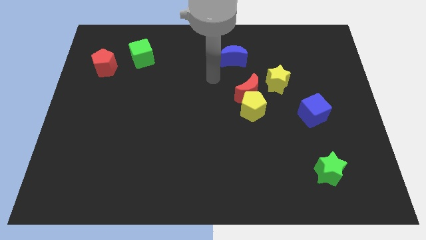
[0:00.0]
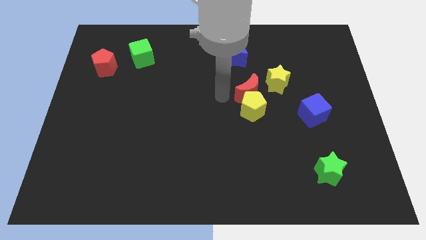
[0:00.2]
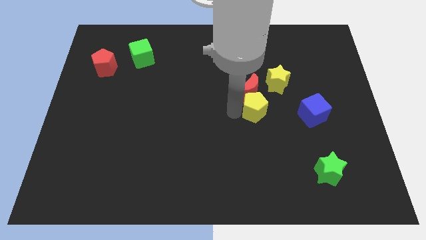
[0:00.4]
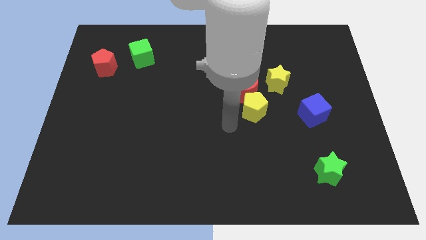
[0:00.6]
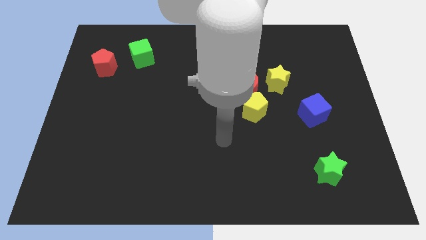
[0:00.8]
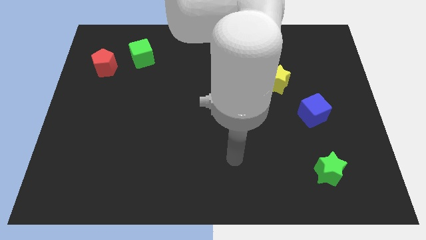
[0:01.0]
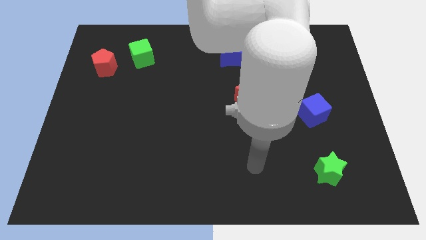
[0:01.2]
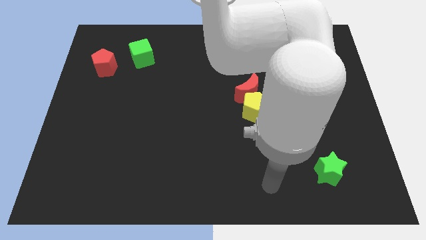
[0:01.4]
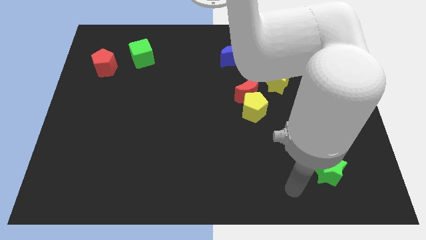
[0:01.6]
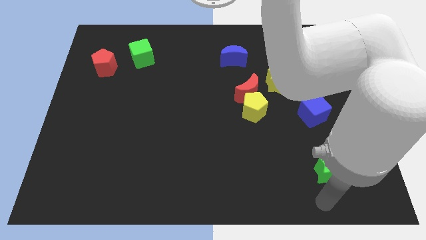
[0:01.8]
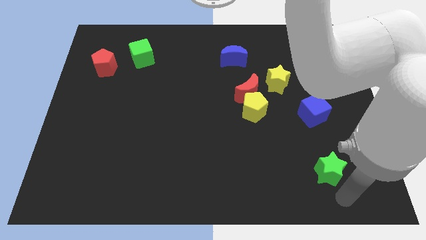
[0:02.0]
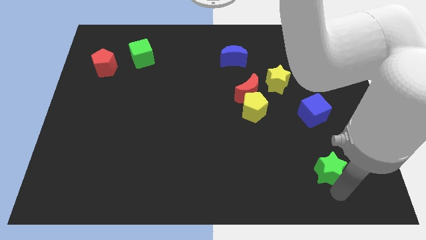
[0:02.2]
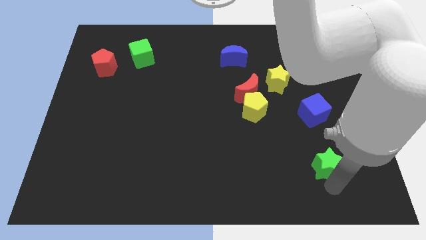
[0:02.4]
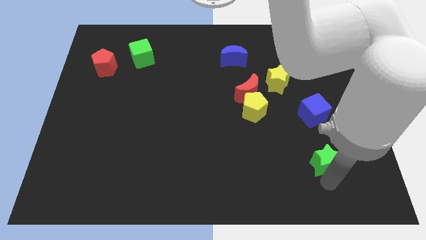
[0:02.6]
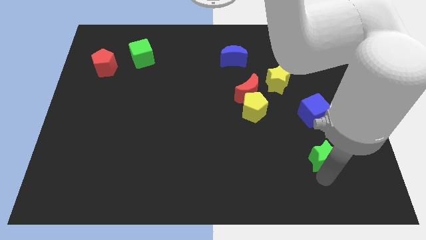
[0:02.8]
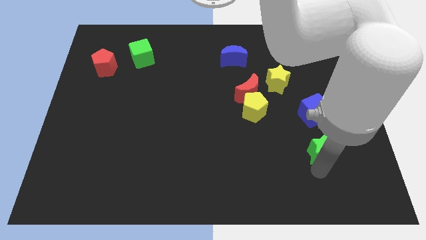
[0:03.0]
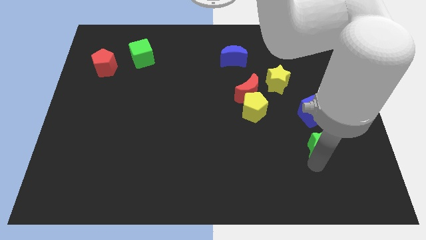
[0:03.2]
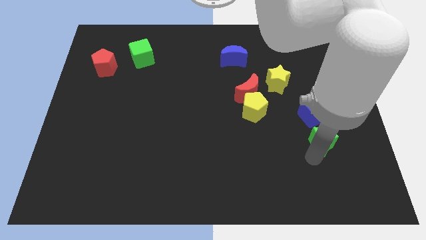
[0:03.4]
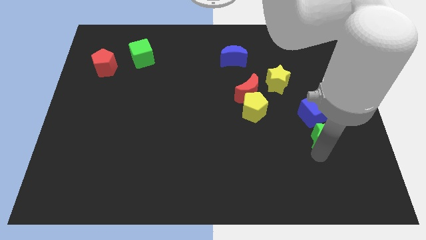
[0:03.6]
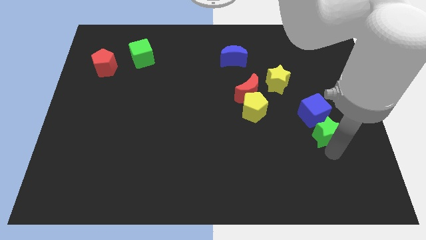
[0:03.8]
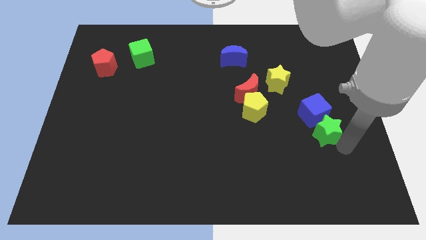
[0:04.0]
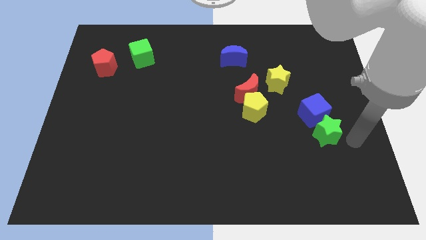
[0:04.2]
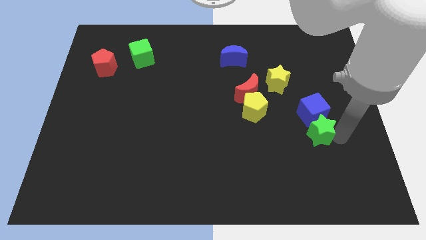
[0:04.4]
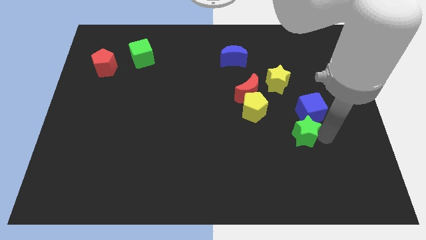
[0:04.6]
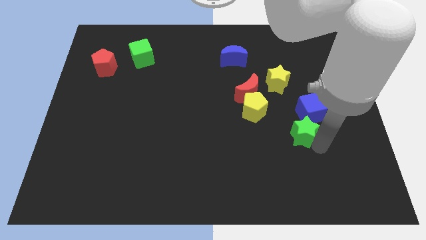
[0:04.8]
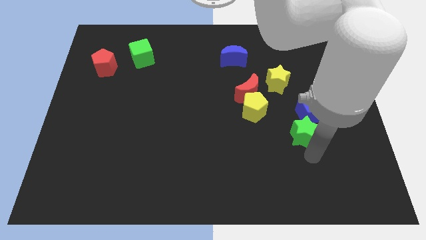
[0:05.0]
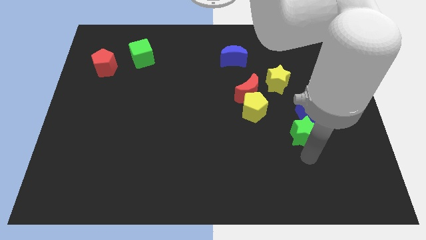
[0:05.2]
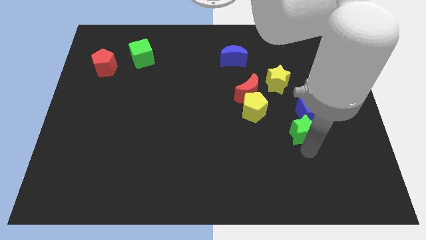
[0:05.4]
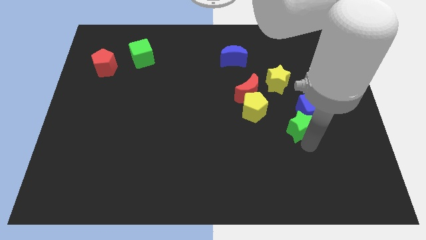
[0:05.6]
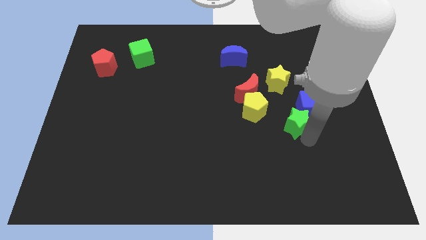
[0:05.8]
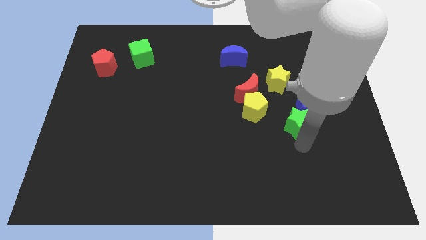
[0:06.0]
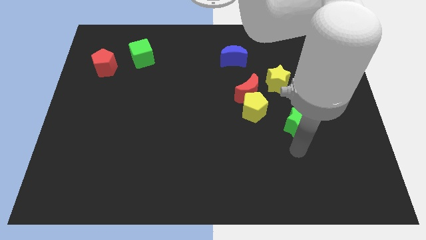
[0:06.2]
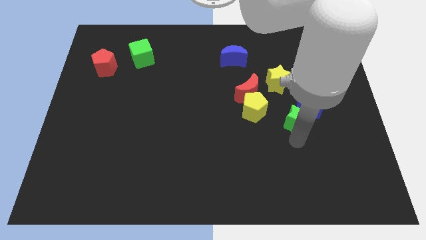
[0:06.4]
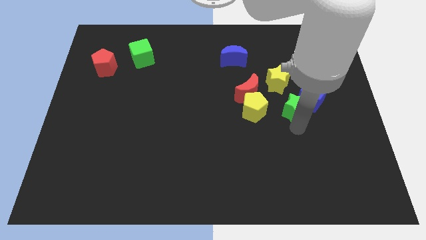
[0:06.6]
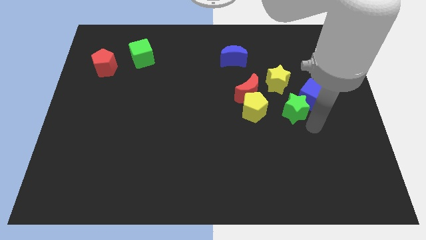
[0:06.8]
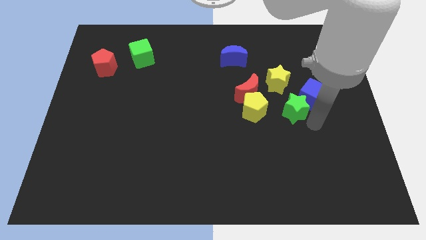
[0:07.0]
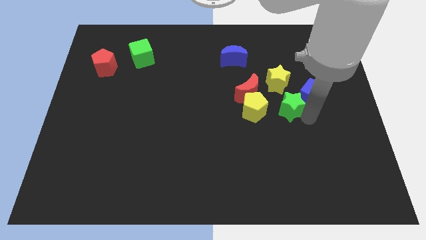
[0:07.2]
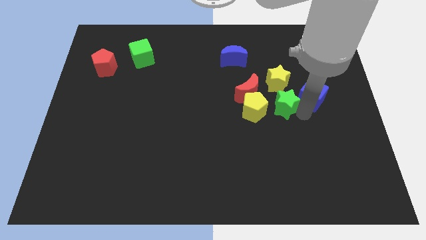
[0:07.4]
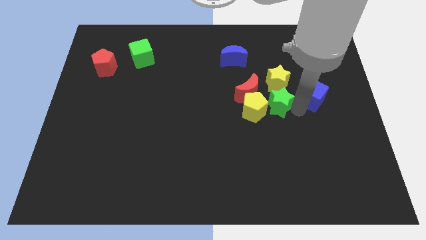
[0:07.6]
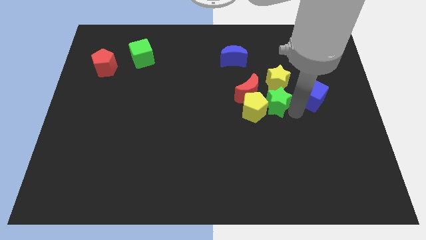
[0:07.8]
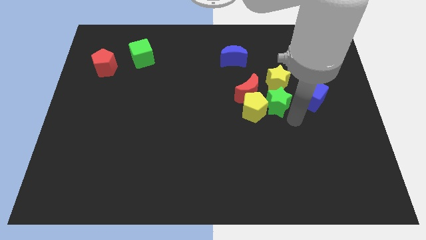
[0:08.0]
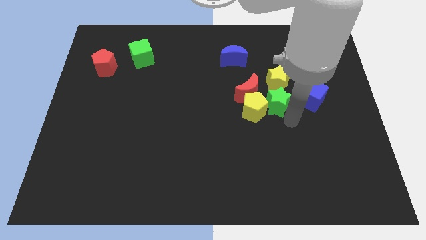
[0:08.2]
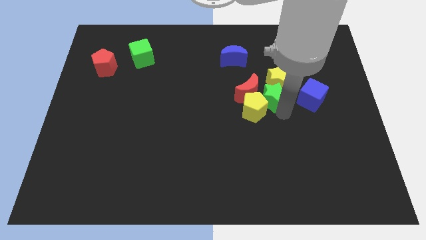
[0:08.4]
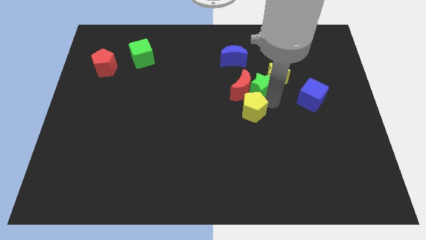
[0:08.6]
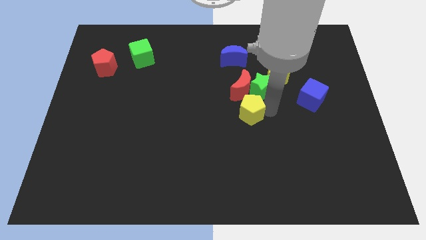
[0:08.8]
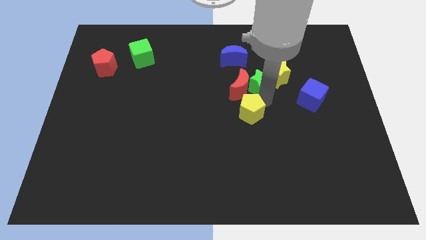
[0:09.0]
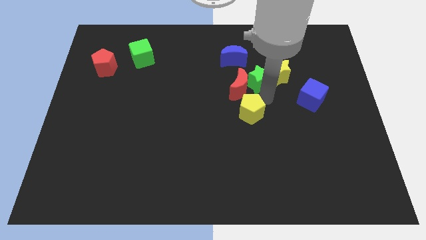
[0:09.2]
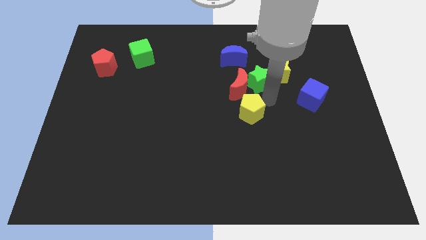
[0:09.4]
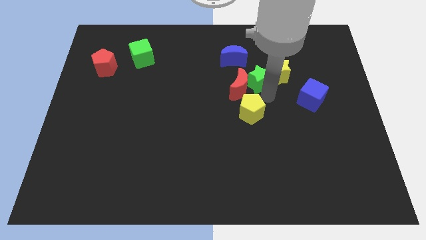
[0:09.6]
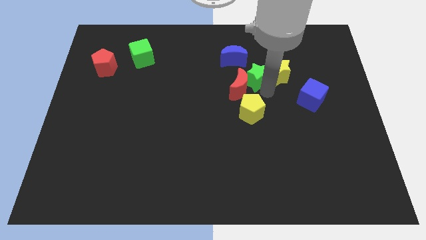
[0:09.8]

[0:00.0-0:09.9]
push the green star to the top of the red moon

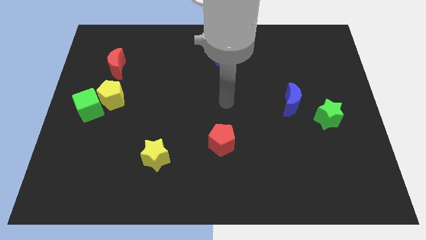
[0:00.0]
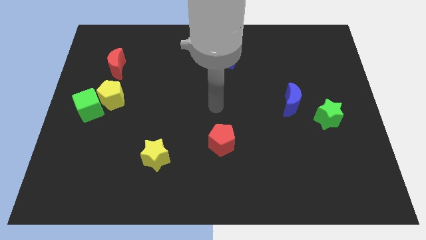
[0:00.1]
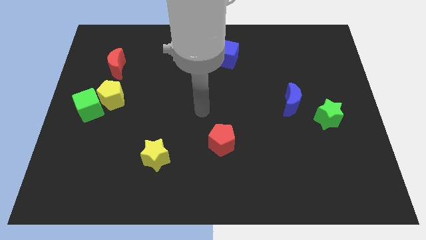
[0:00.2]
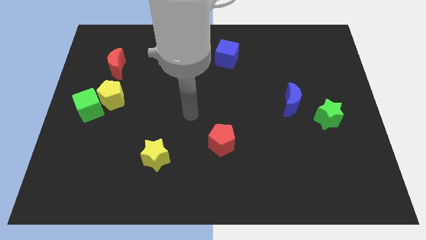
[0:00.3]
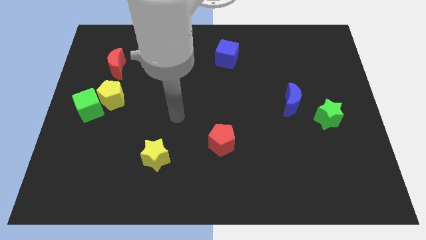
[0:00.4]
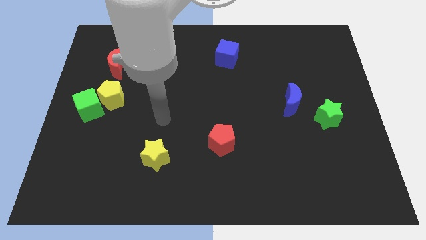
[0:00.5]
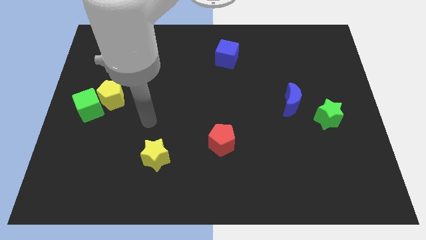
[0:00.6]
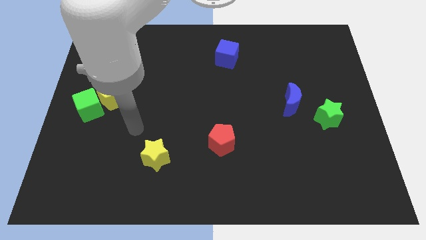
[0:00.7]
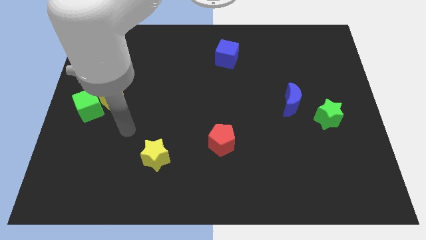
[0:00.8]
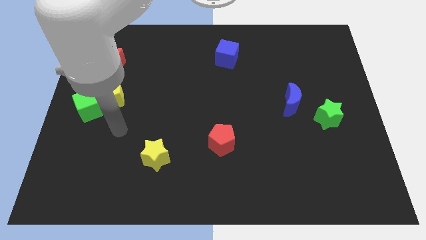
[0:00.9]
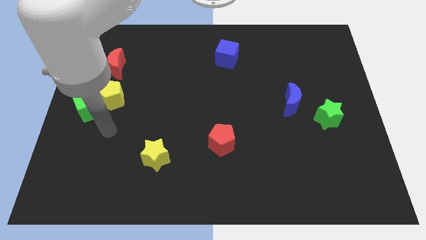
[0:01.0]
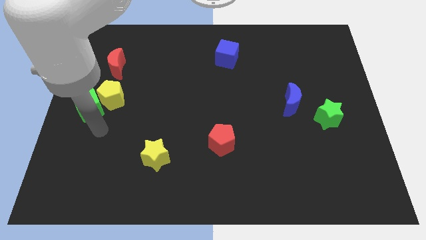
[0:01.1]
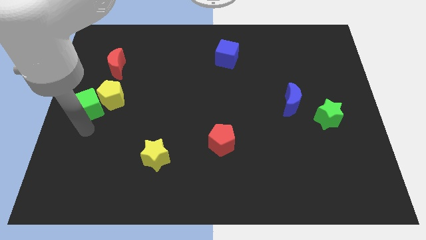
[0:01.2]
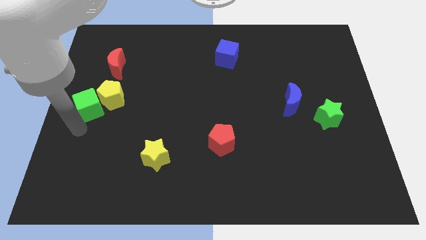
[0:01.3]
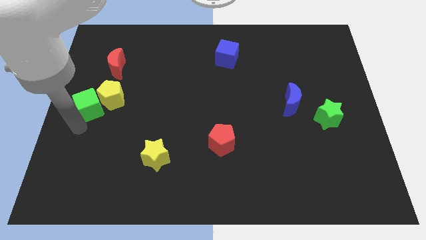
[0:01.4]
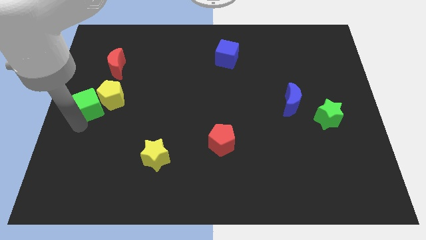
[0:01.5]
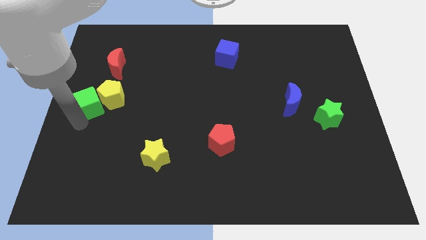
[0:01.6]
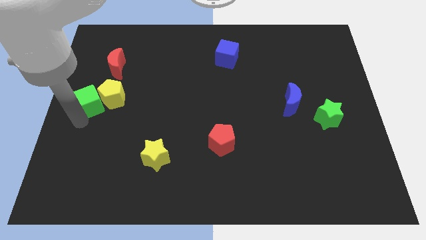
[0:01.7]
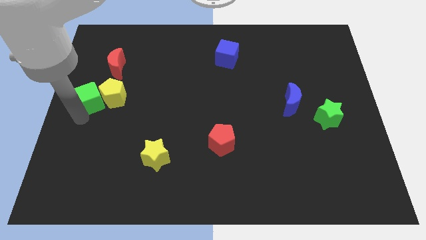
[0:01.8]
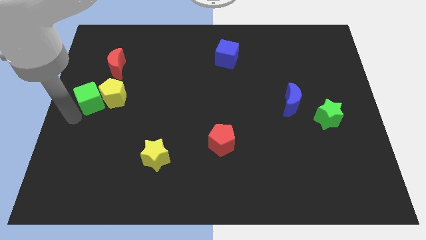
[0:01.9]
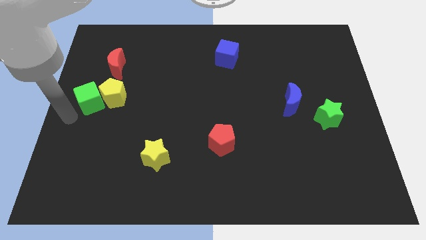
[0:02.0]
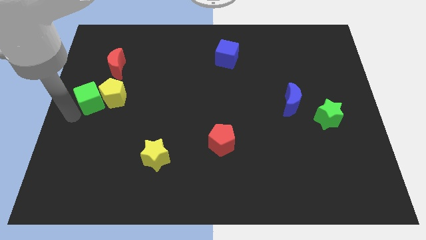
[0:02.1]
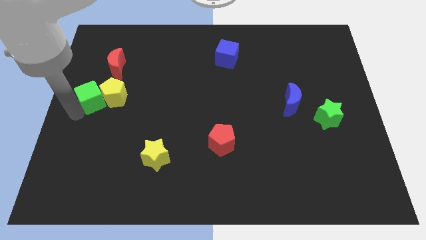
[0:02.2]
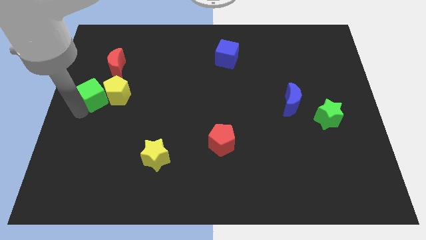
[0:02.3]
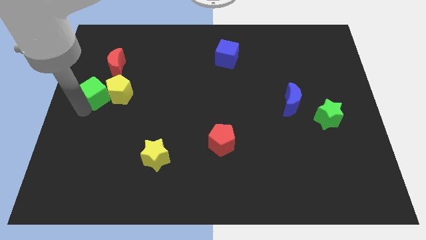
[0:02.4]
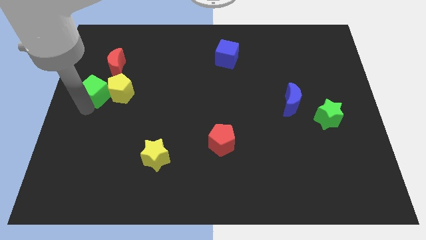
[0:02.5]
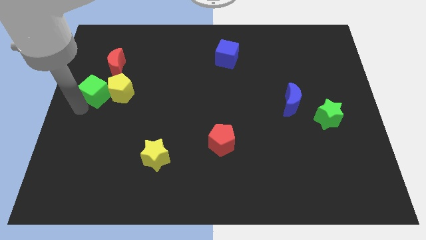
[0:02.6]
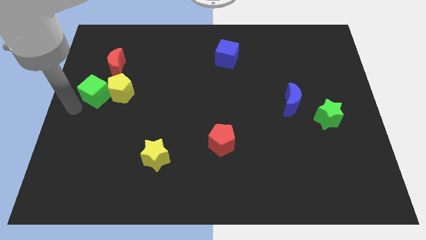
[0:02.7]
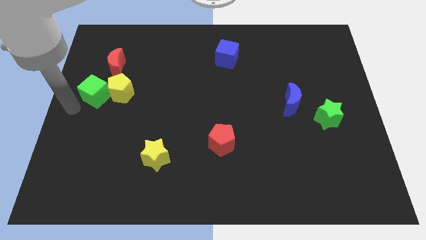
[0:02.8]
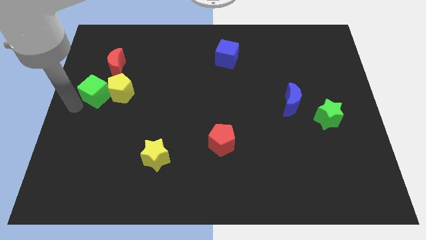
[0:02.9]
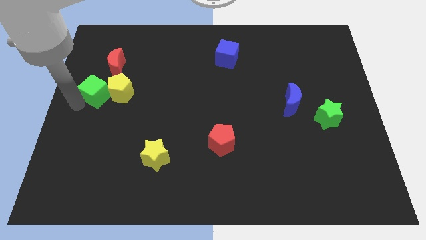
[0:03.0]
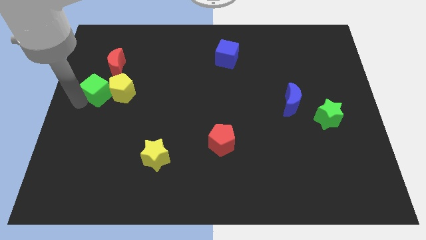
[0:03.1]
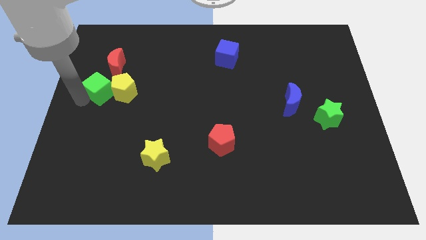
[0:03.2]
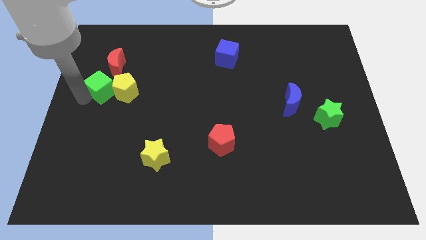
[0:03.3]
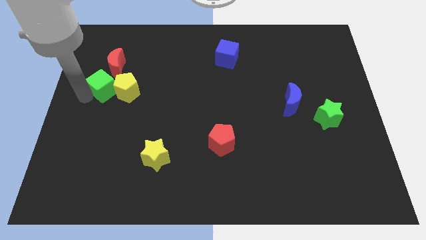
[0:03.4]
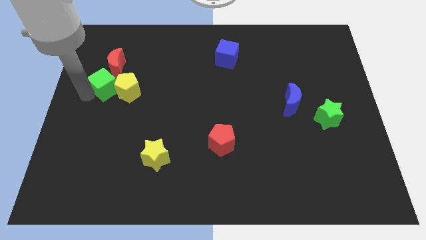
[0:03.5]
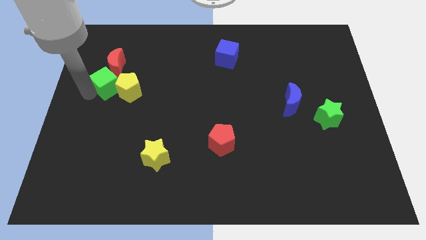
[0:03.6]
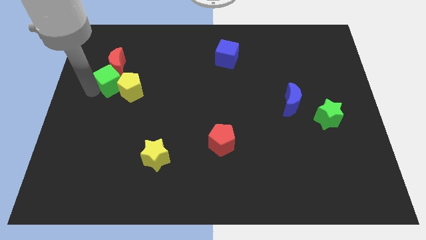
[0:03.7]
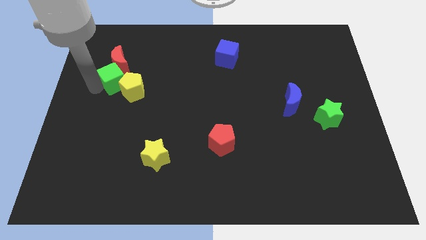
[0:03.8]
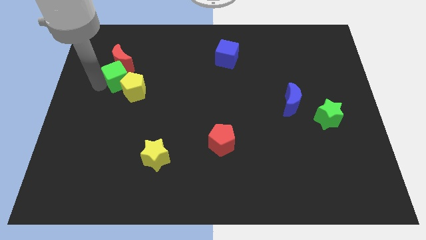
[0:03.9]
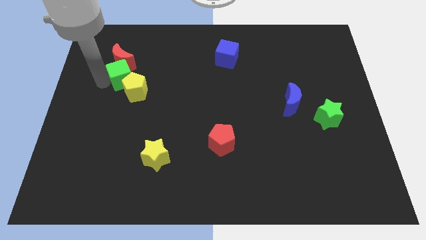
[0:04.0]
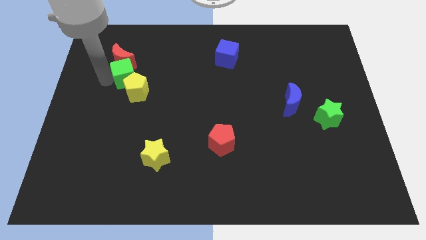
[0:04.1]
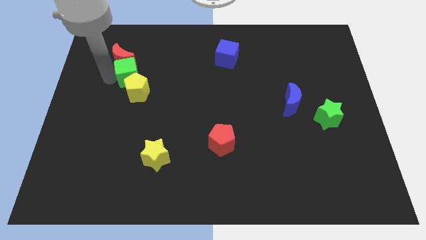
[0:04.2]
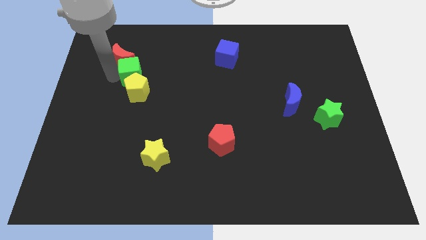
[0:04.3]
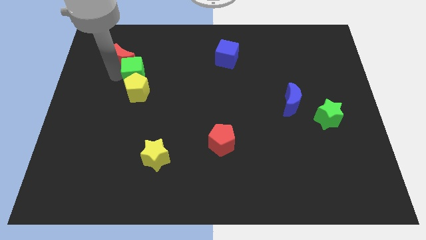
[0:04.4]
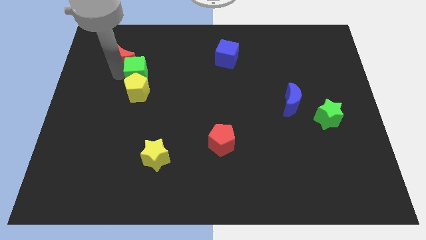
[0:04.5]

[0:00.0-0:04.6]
push the green cube diagonally up and to the right of the yellow pentagon
